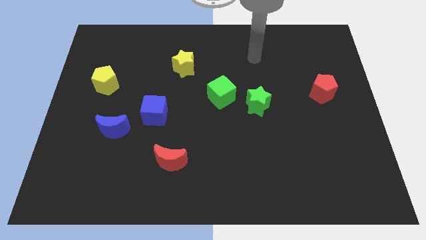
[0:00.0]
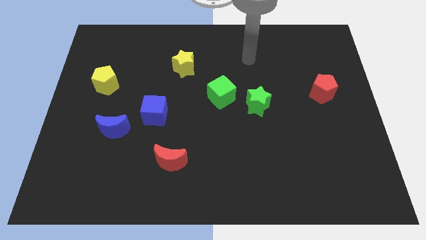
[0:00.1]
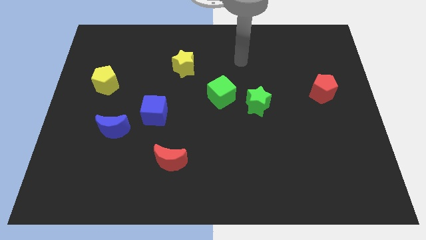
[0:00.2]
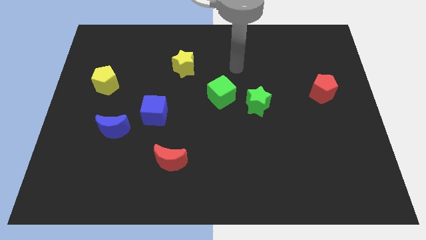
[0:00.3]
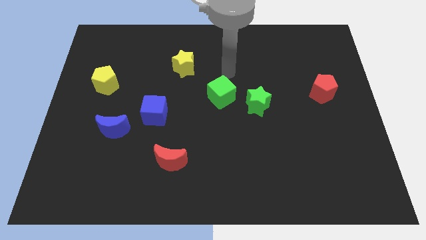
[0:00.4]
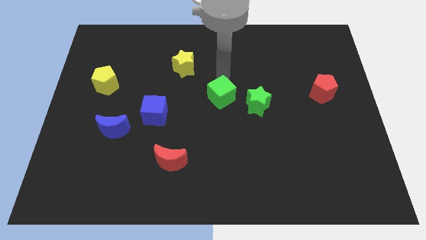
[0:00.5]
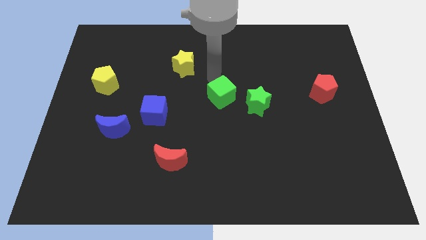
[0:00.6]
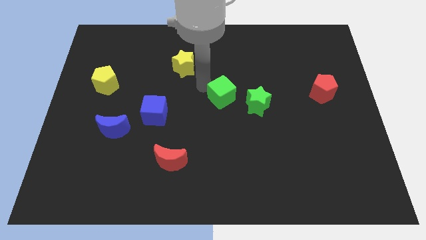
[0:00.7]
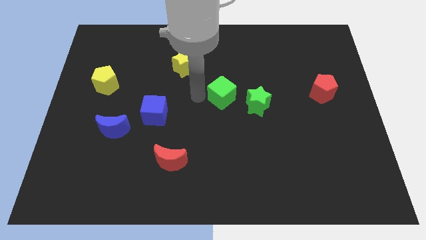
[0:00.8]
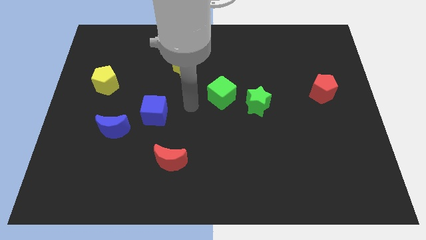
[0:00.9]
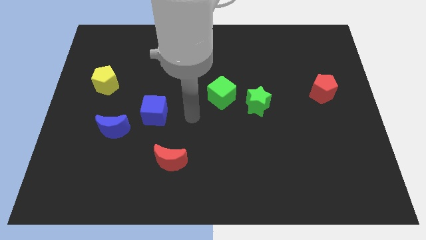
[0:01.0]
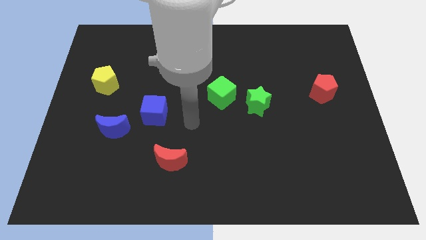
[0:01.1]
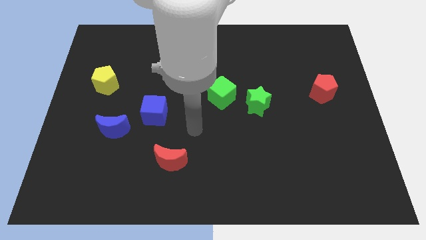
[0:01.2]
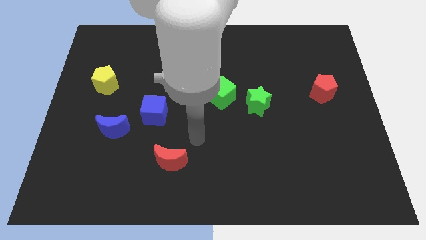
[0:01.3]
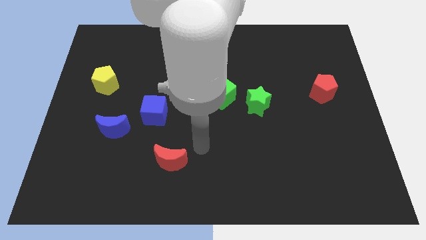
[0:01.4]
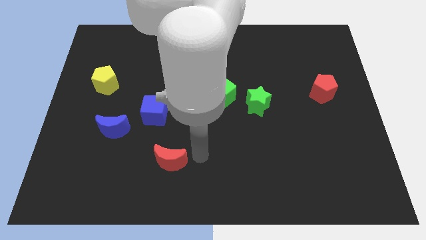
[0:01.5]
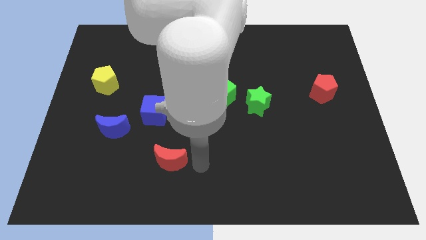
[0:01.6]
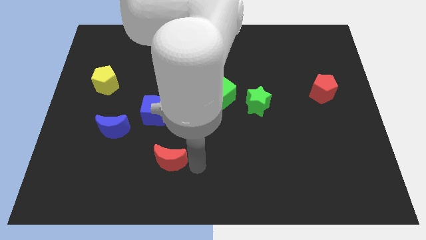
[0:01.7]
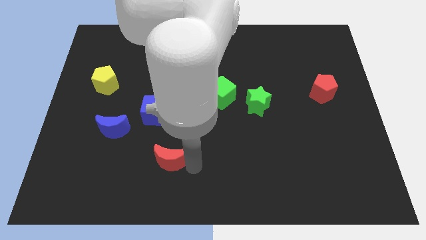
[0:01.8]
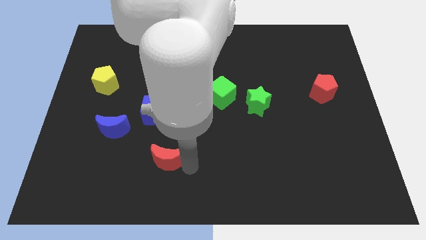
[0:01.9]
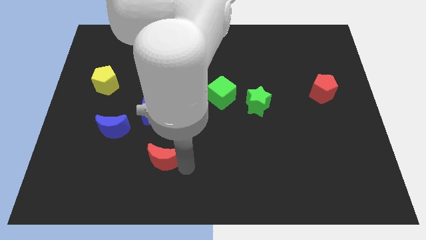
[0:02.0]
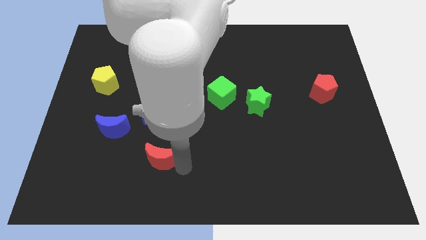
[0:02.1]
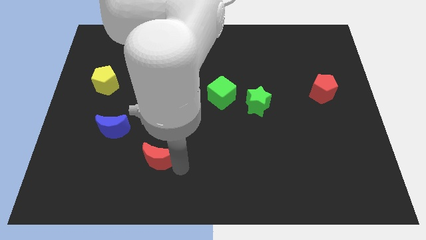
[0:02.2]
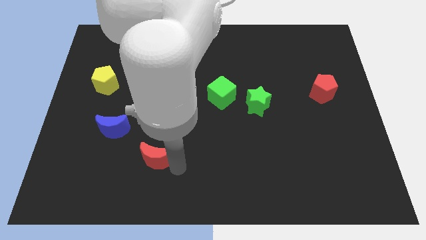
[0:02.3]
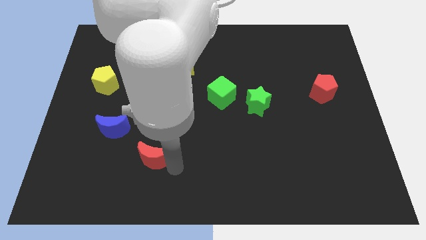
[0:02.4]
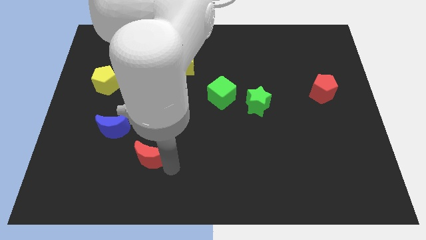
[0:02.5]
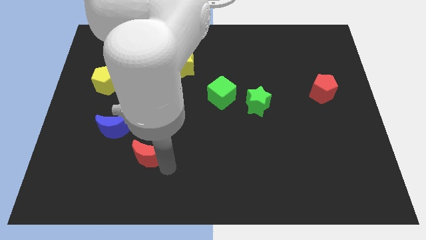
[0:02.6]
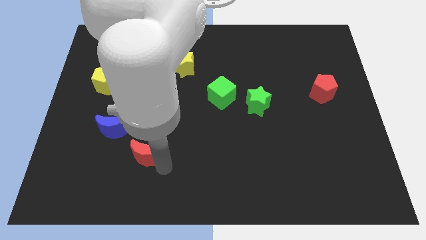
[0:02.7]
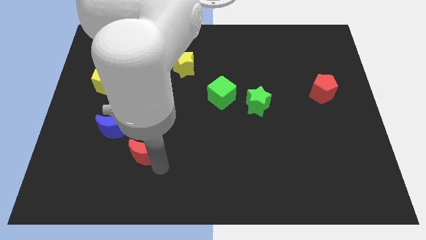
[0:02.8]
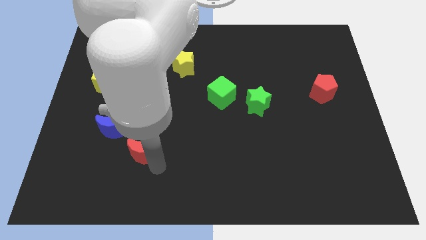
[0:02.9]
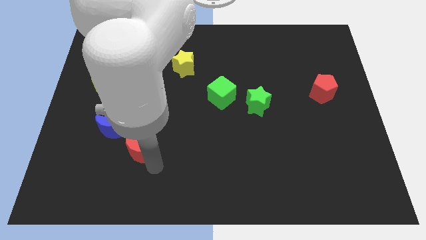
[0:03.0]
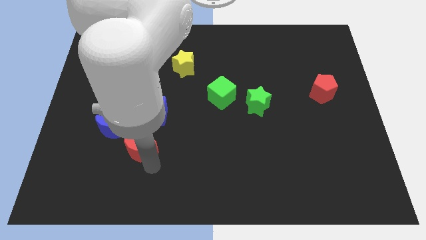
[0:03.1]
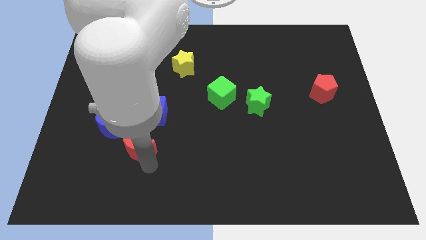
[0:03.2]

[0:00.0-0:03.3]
slide the red moon left a bit

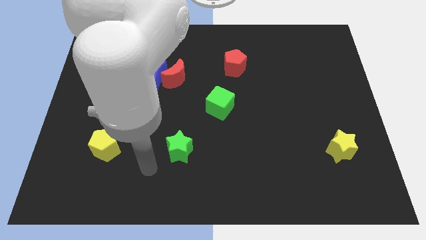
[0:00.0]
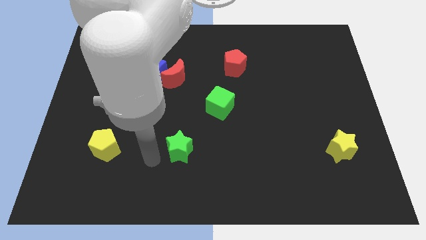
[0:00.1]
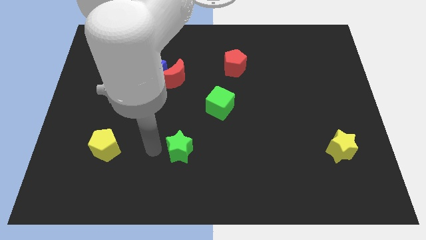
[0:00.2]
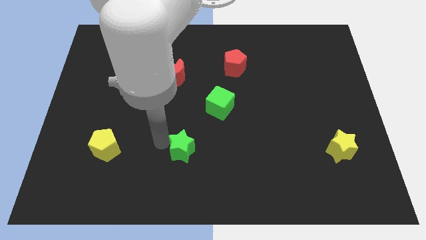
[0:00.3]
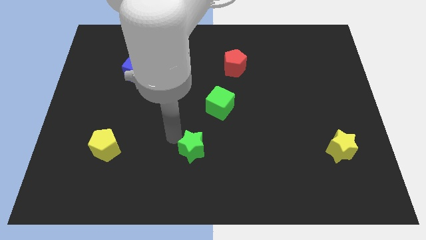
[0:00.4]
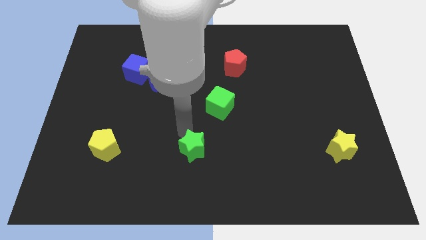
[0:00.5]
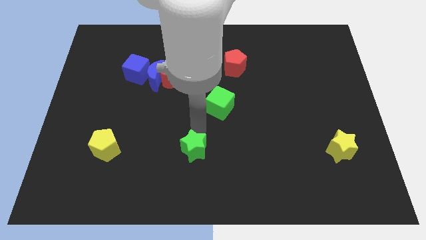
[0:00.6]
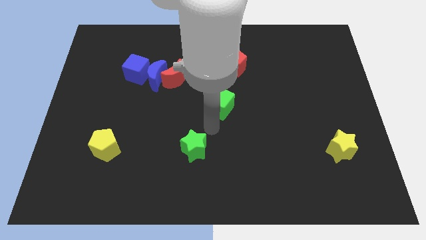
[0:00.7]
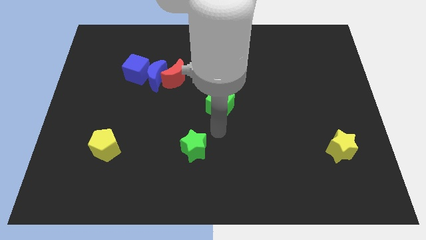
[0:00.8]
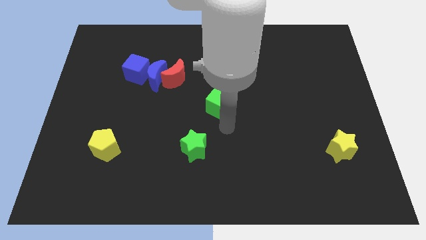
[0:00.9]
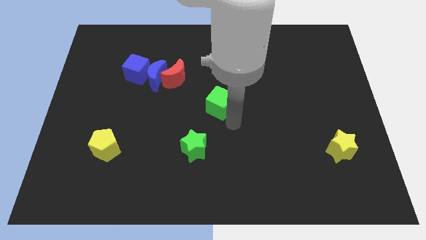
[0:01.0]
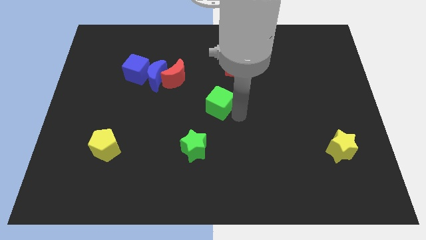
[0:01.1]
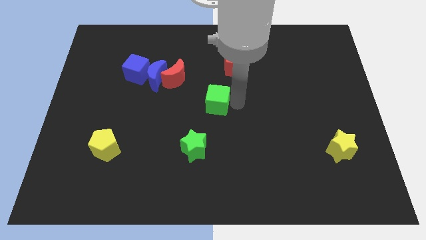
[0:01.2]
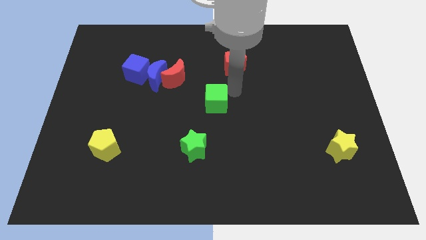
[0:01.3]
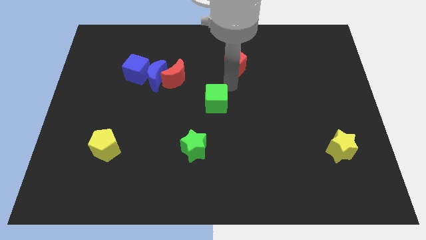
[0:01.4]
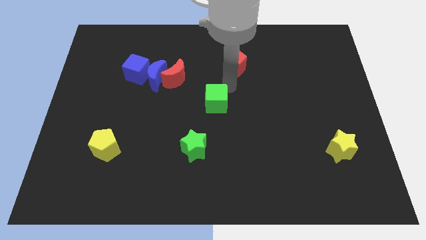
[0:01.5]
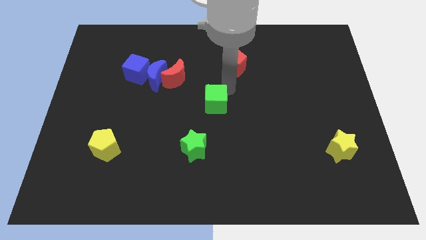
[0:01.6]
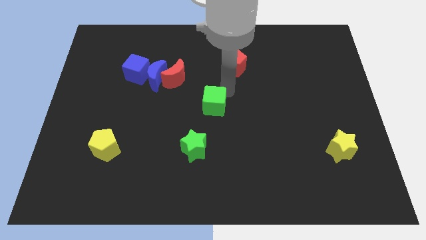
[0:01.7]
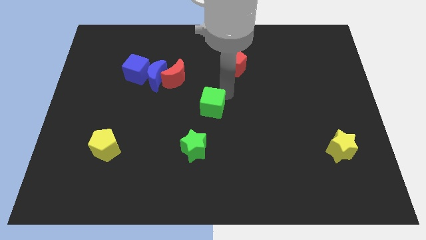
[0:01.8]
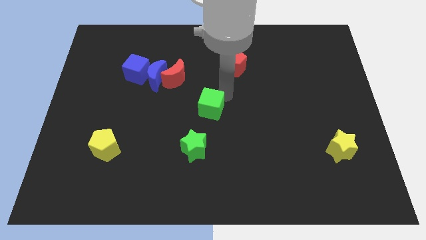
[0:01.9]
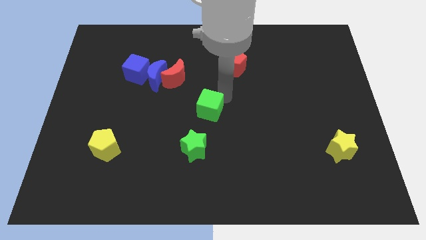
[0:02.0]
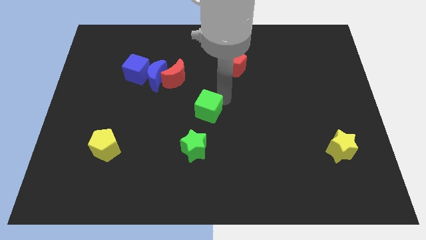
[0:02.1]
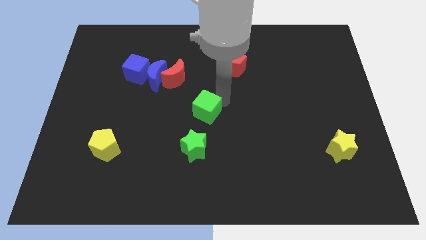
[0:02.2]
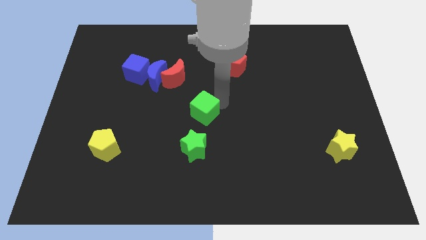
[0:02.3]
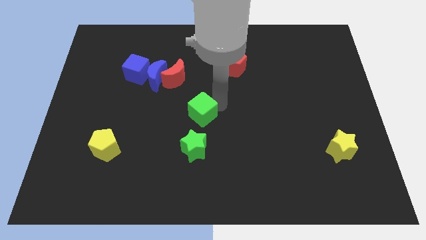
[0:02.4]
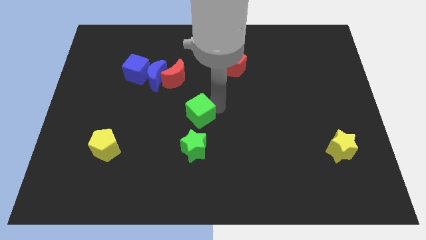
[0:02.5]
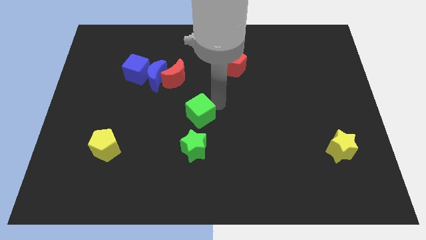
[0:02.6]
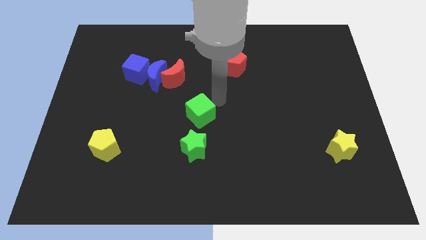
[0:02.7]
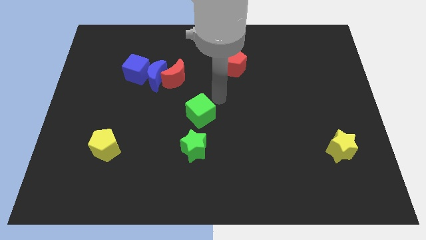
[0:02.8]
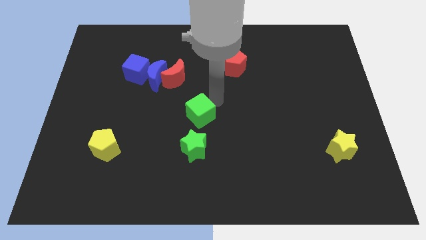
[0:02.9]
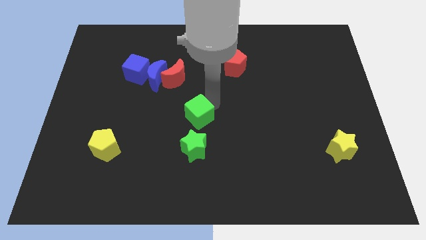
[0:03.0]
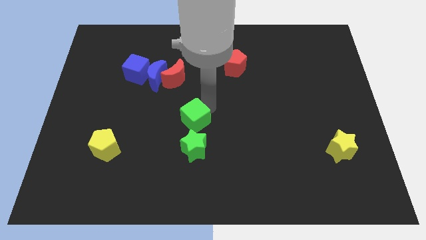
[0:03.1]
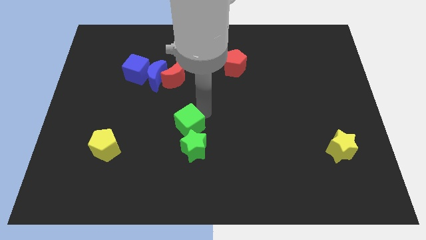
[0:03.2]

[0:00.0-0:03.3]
push the green cube down and then left somewhat

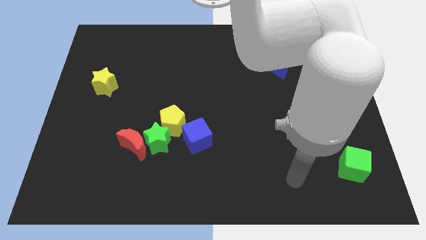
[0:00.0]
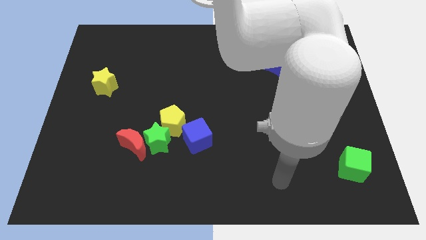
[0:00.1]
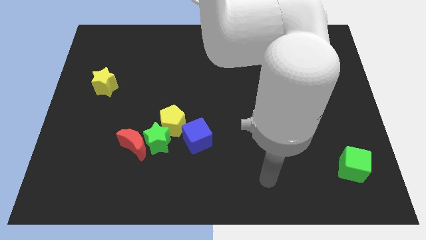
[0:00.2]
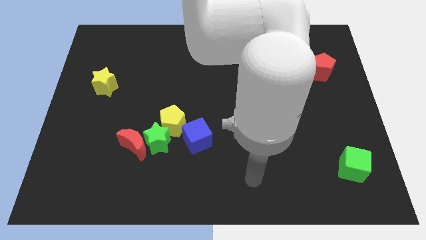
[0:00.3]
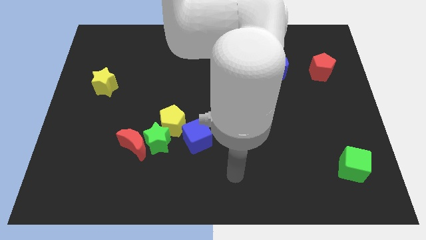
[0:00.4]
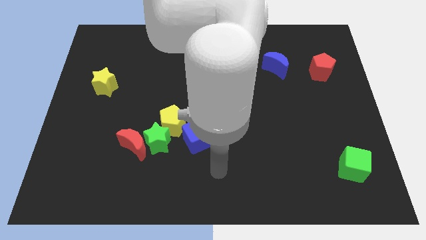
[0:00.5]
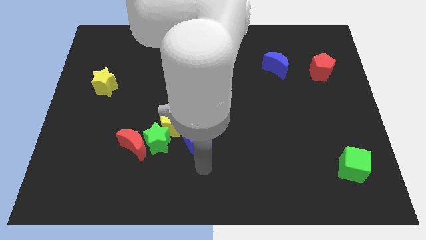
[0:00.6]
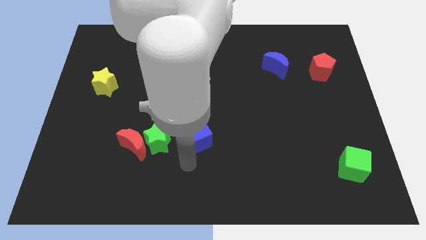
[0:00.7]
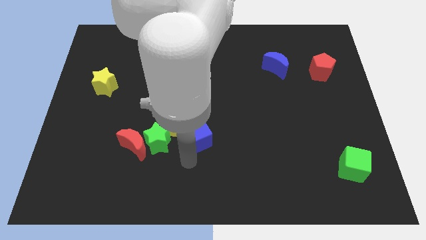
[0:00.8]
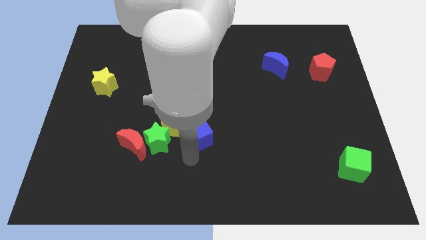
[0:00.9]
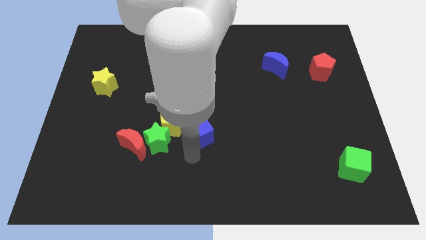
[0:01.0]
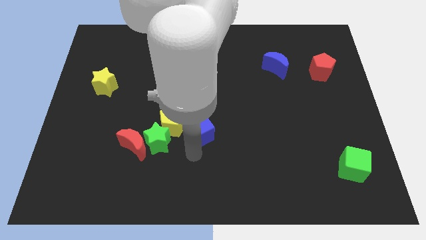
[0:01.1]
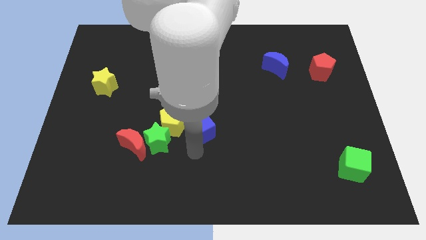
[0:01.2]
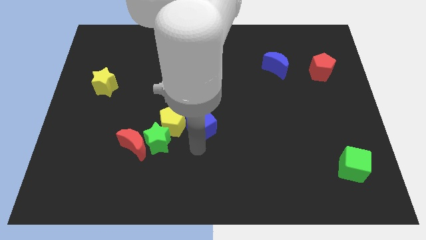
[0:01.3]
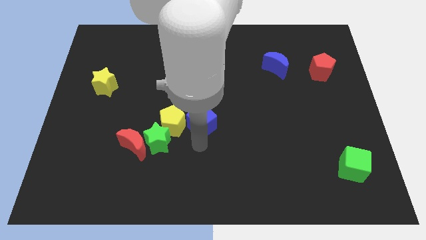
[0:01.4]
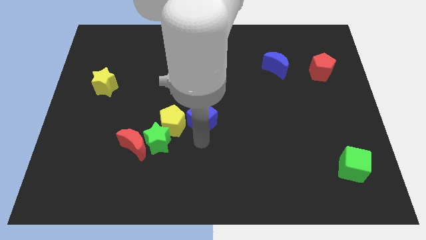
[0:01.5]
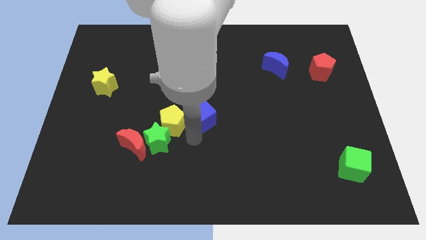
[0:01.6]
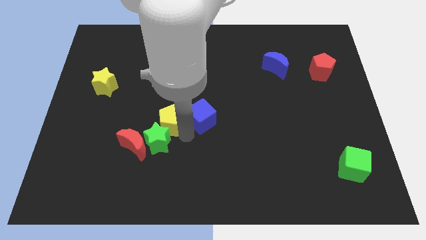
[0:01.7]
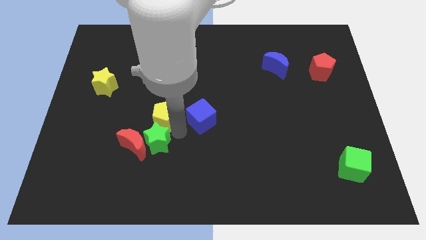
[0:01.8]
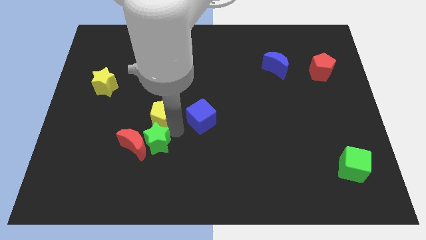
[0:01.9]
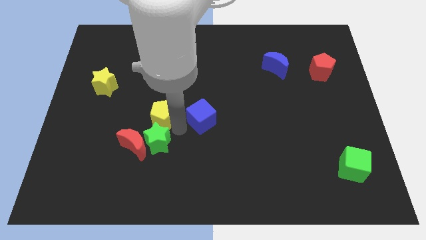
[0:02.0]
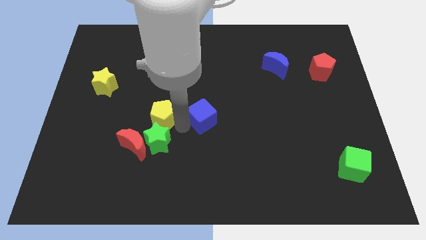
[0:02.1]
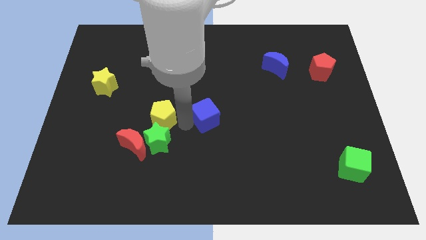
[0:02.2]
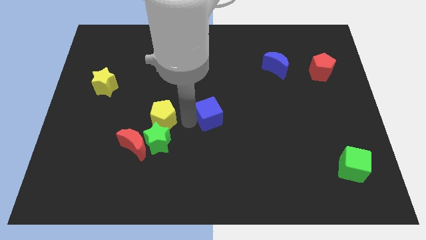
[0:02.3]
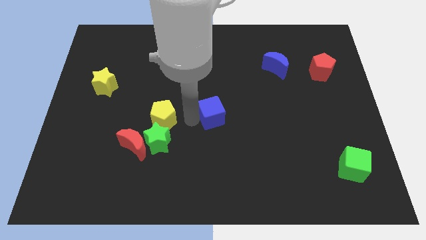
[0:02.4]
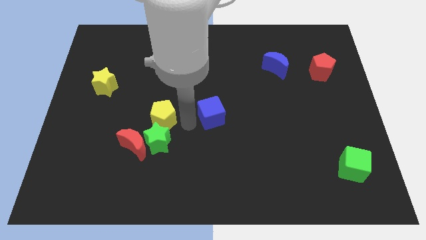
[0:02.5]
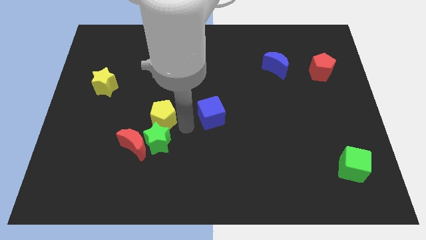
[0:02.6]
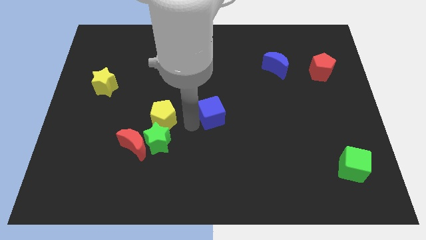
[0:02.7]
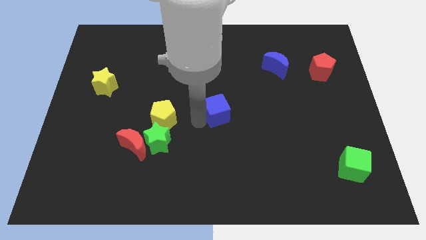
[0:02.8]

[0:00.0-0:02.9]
push the blue cube upwards and to the right a little bit
